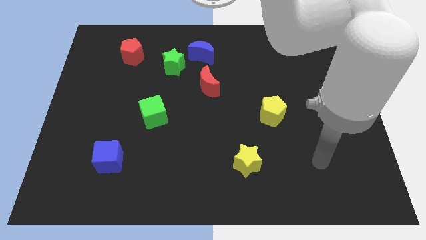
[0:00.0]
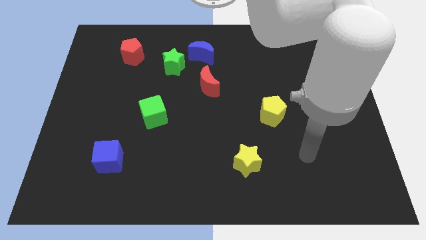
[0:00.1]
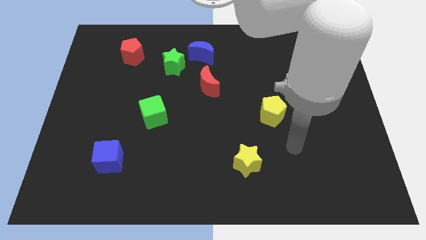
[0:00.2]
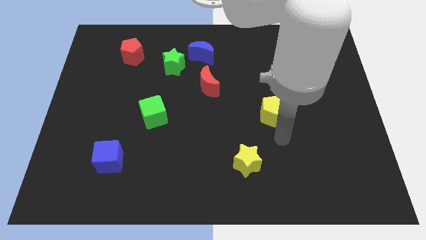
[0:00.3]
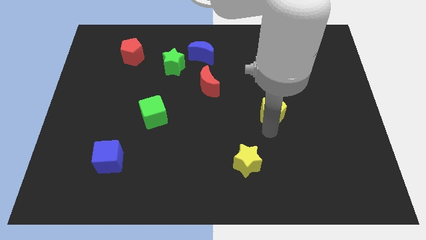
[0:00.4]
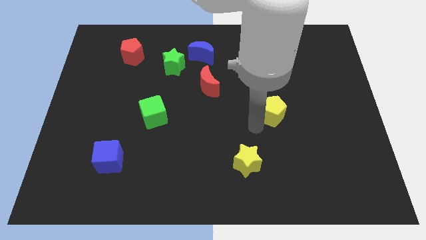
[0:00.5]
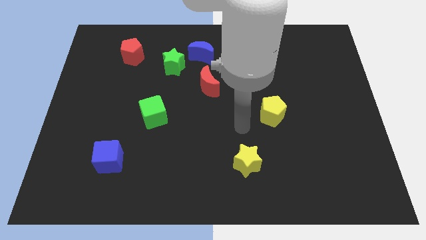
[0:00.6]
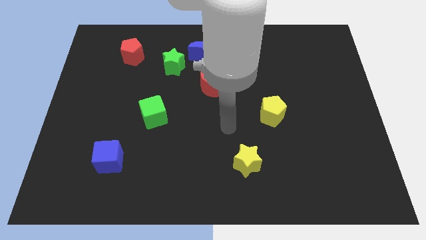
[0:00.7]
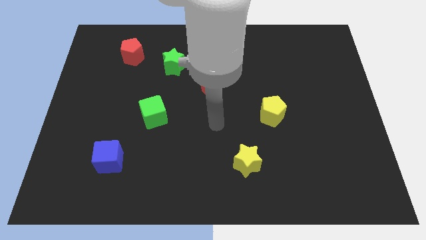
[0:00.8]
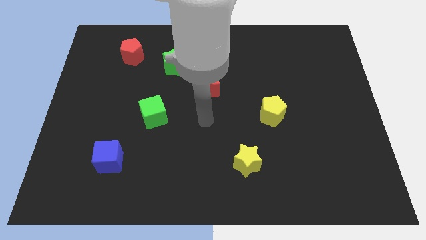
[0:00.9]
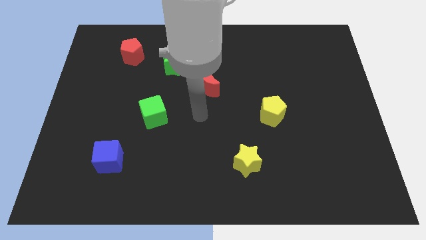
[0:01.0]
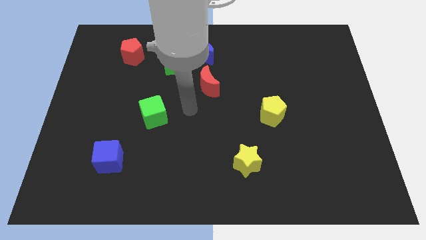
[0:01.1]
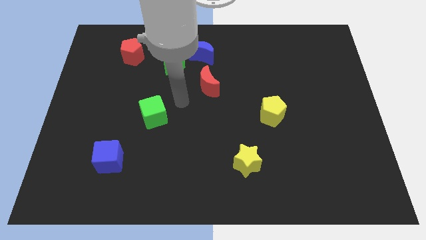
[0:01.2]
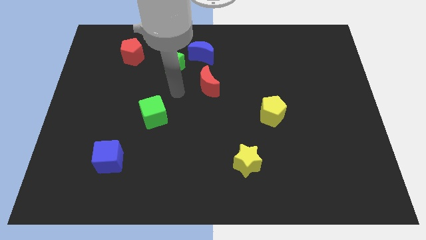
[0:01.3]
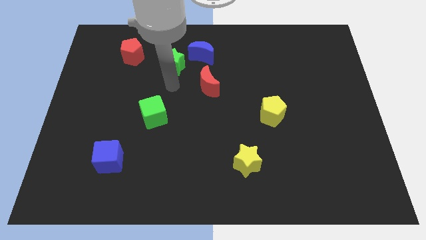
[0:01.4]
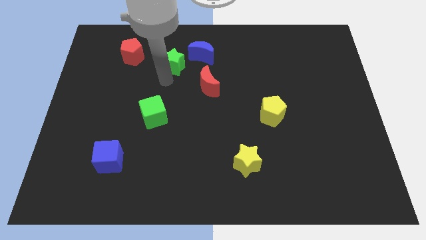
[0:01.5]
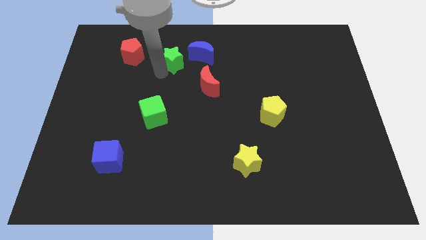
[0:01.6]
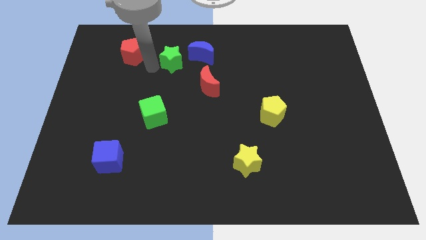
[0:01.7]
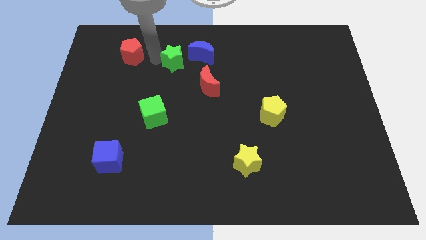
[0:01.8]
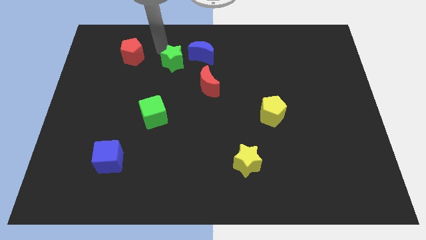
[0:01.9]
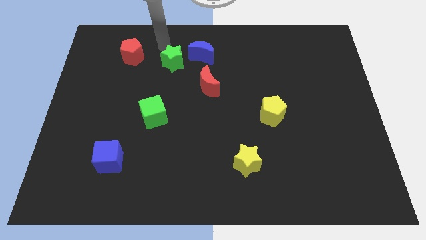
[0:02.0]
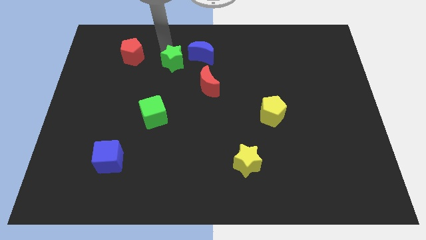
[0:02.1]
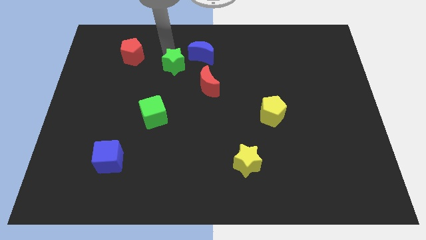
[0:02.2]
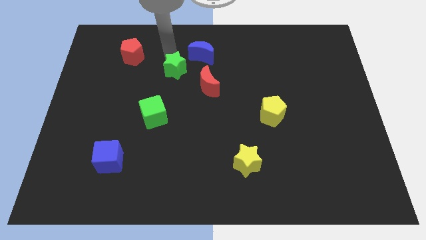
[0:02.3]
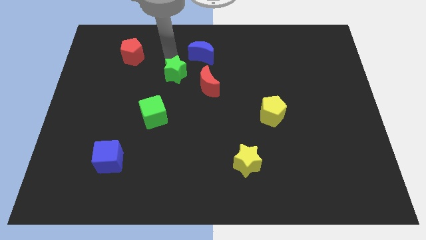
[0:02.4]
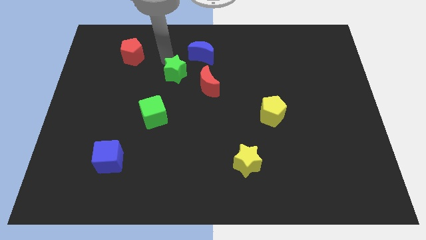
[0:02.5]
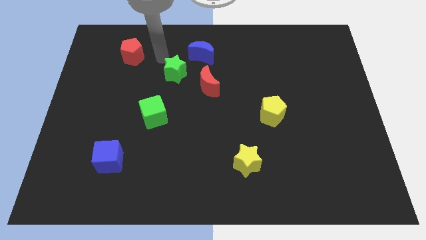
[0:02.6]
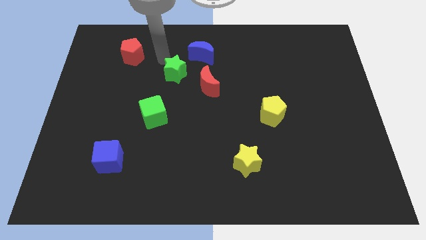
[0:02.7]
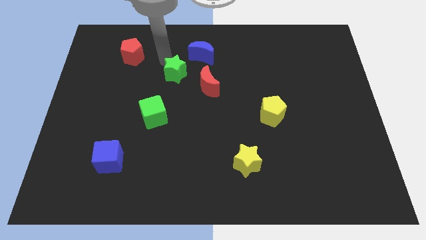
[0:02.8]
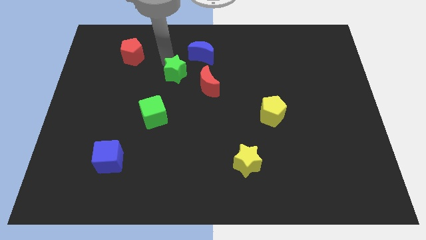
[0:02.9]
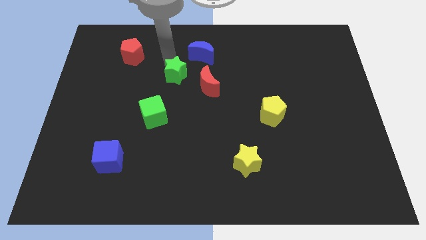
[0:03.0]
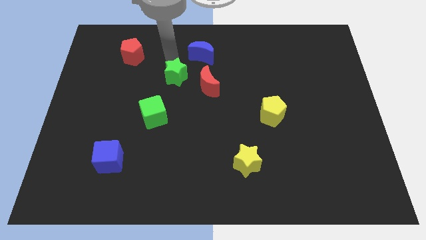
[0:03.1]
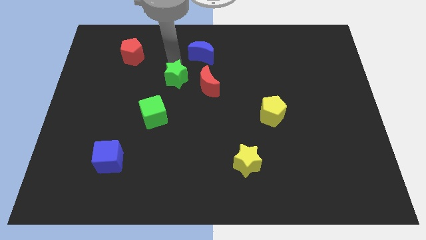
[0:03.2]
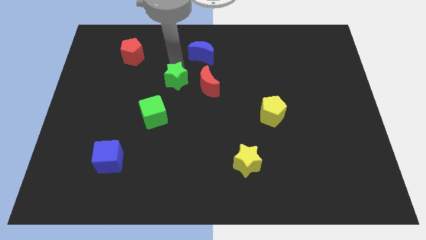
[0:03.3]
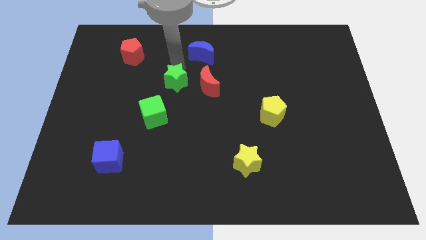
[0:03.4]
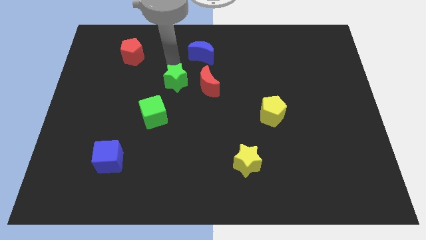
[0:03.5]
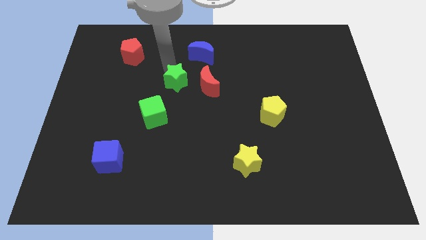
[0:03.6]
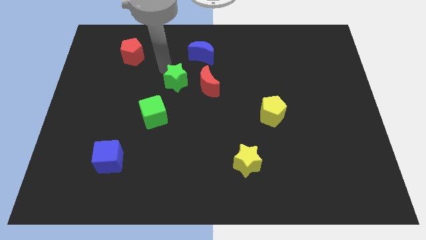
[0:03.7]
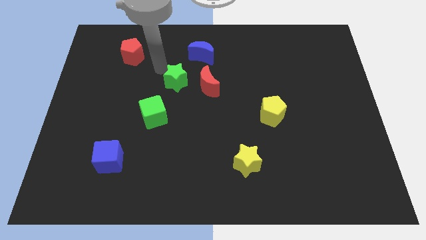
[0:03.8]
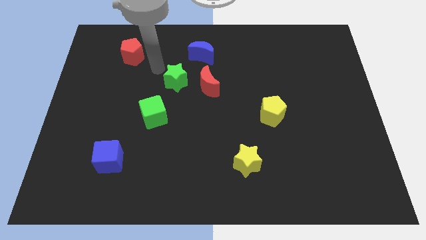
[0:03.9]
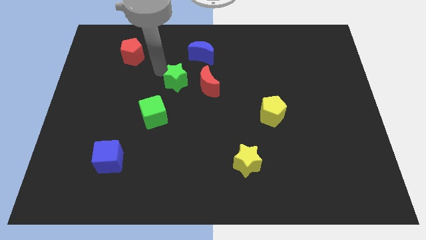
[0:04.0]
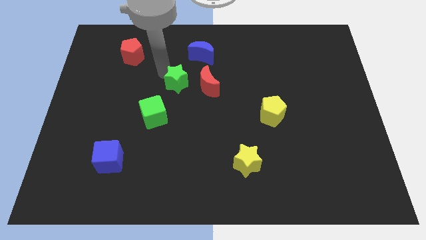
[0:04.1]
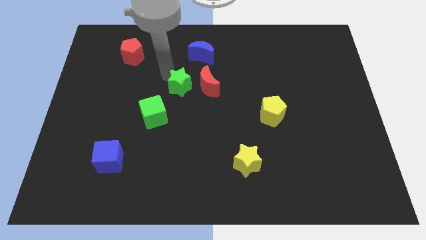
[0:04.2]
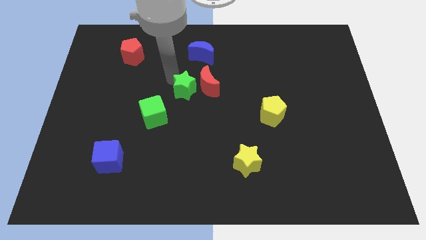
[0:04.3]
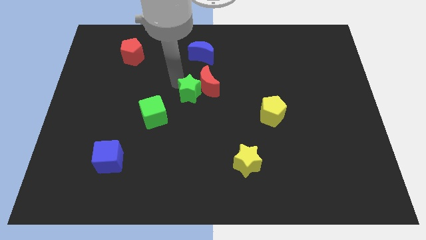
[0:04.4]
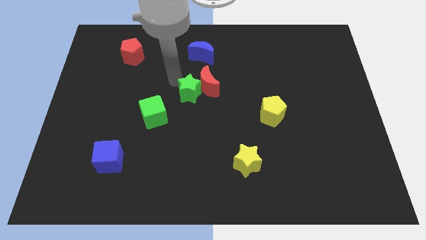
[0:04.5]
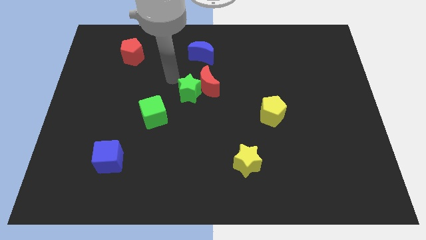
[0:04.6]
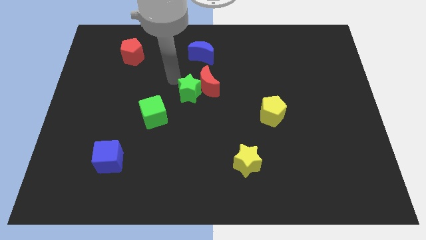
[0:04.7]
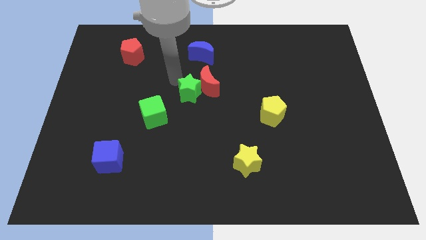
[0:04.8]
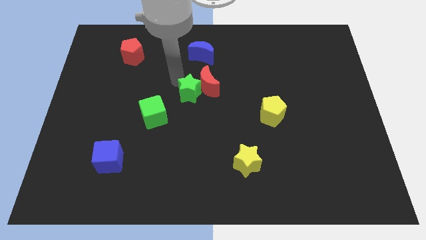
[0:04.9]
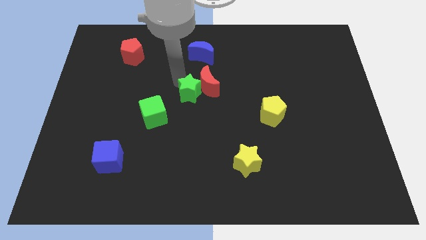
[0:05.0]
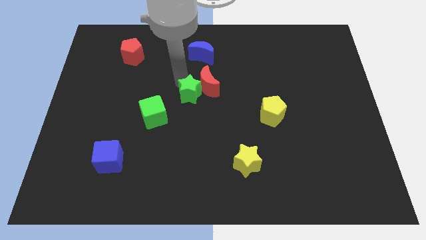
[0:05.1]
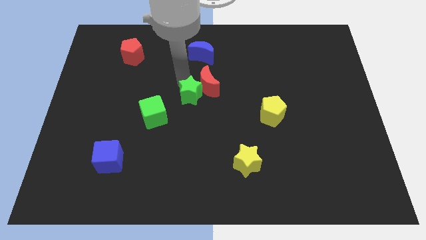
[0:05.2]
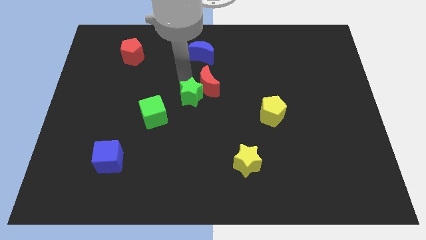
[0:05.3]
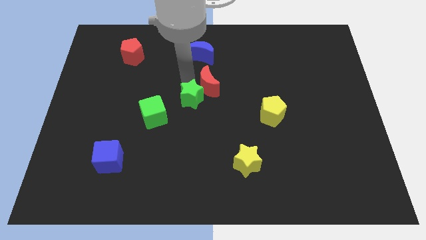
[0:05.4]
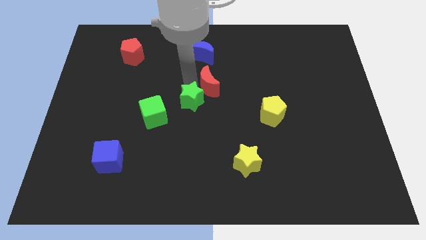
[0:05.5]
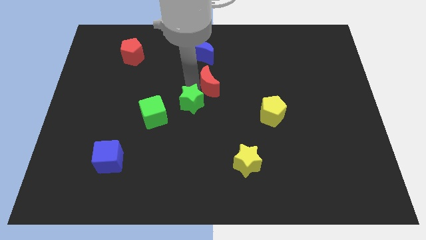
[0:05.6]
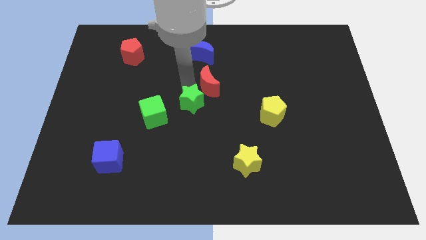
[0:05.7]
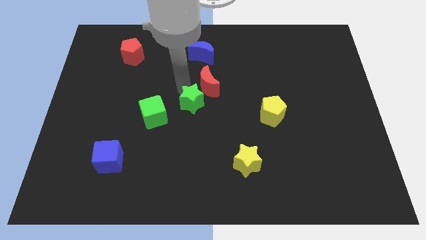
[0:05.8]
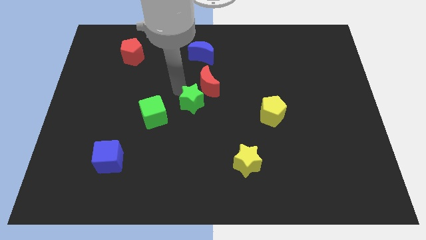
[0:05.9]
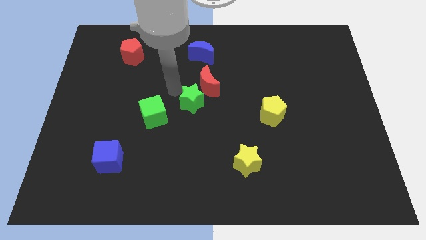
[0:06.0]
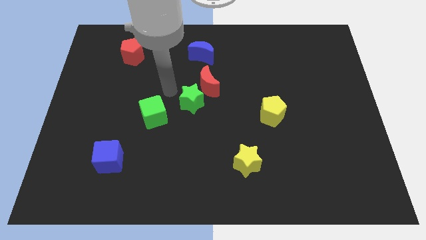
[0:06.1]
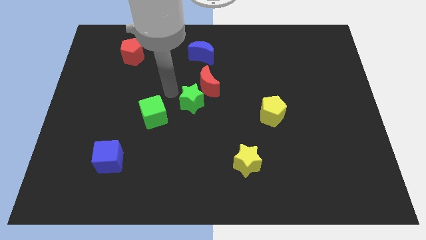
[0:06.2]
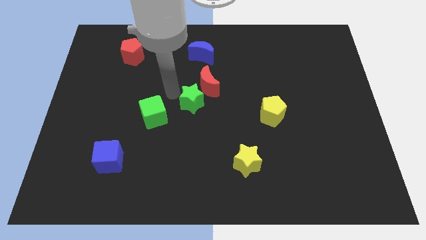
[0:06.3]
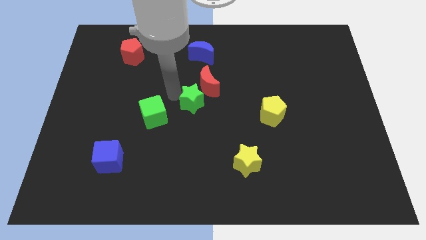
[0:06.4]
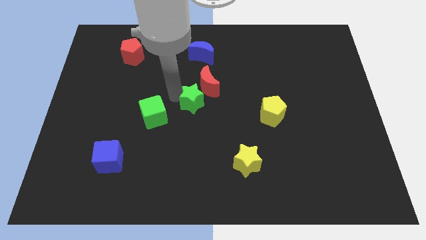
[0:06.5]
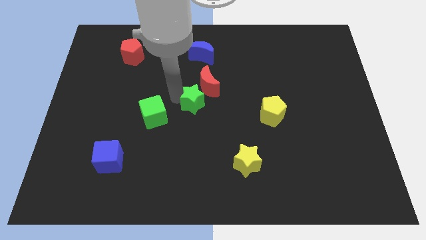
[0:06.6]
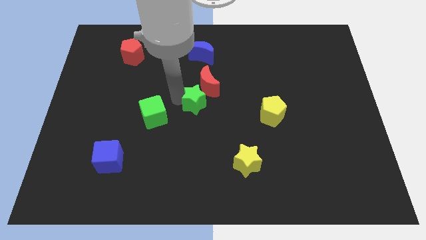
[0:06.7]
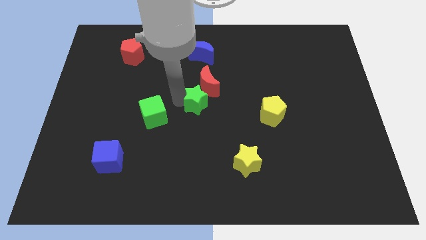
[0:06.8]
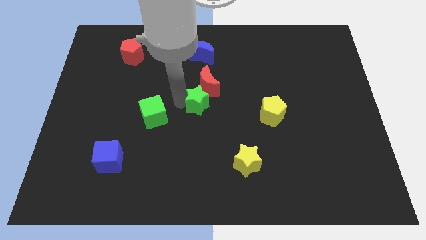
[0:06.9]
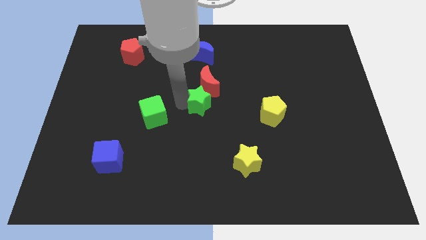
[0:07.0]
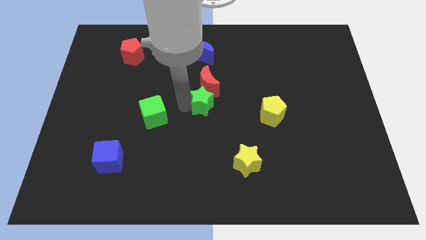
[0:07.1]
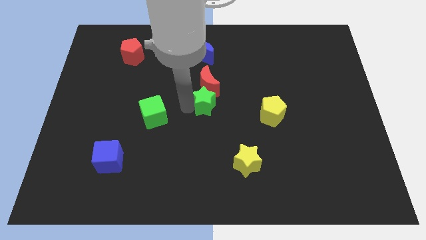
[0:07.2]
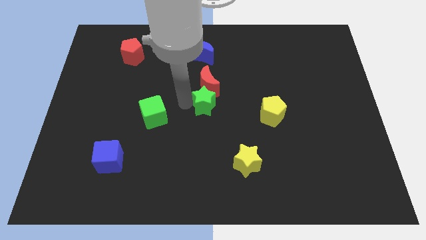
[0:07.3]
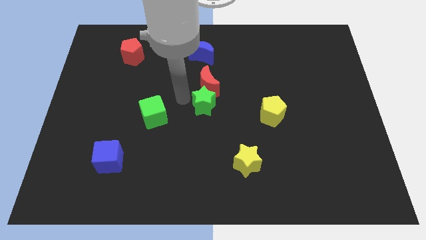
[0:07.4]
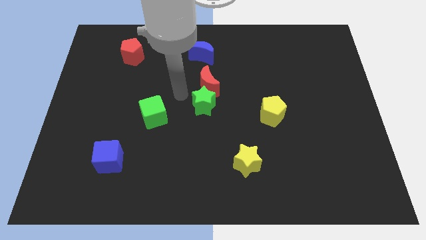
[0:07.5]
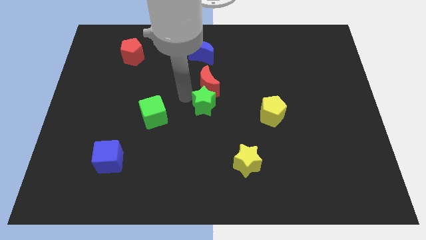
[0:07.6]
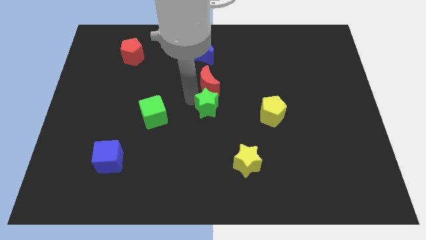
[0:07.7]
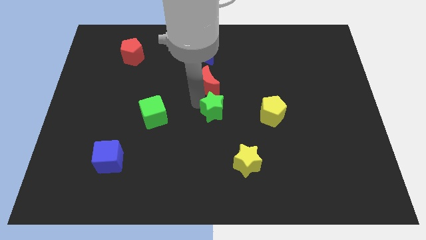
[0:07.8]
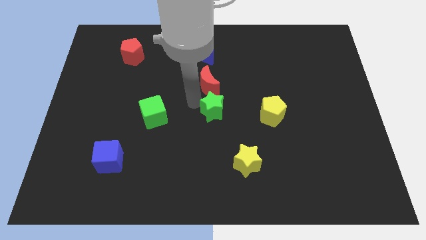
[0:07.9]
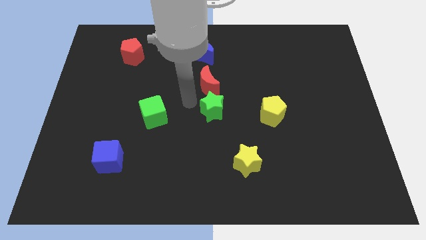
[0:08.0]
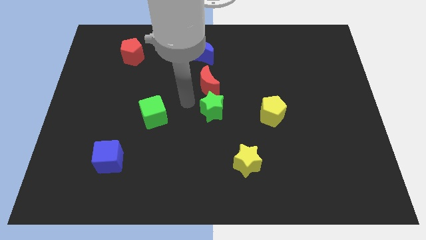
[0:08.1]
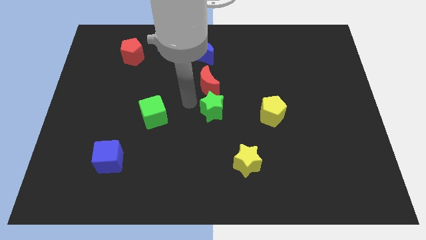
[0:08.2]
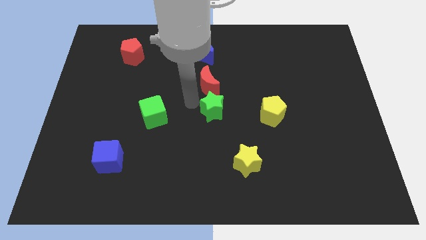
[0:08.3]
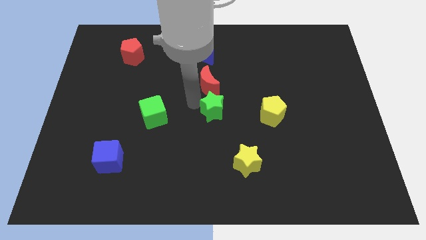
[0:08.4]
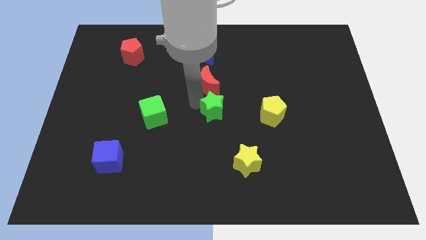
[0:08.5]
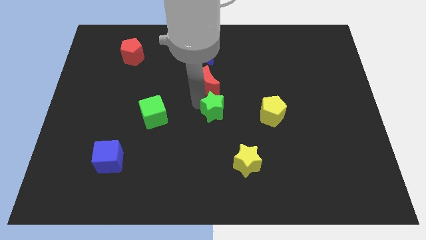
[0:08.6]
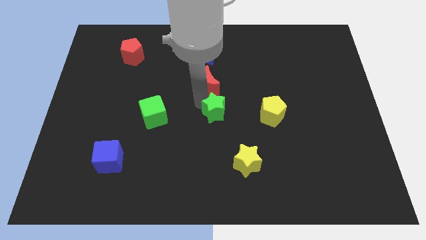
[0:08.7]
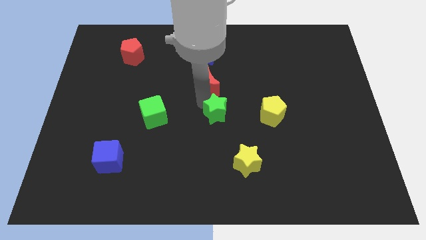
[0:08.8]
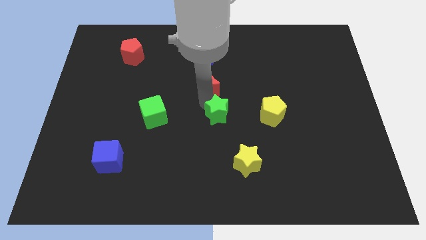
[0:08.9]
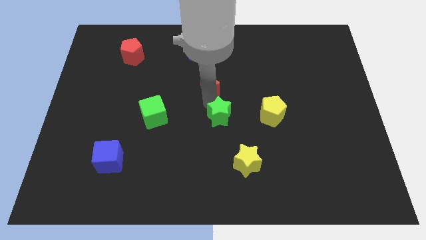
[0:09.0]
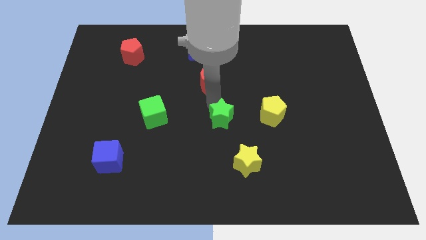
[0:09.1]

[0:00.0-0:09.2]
slide the green star down and to the right diagonally
